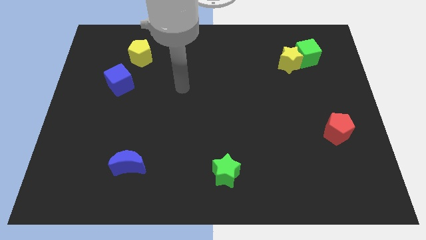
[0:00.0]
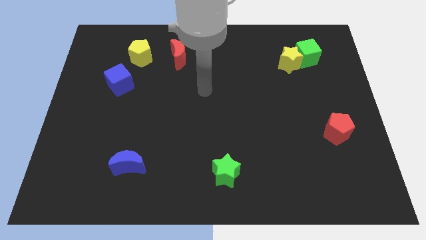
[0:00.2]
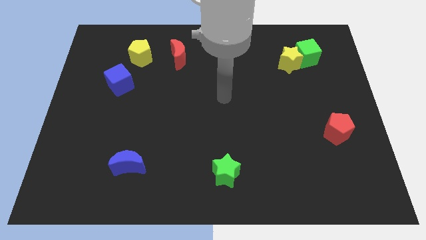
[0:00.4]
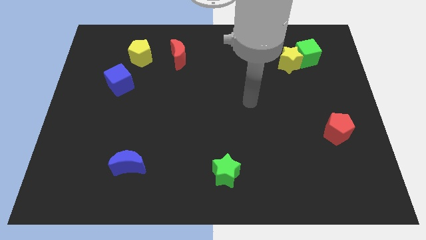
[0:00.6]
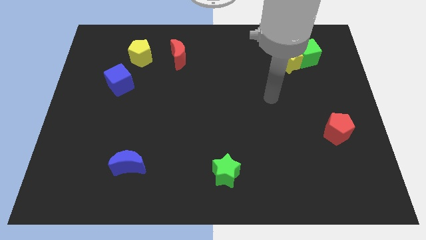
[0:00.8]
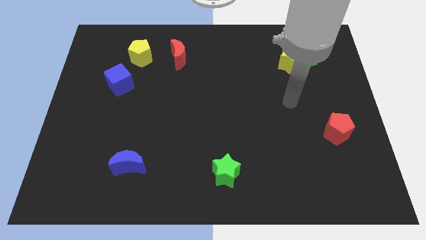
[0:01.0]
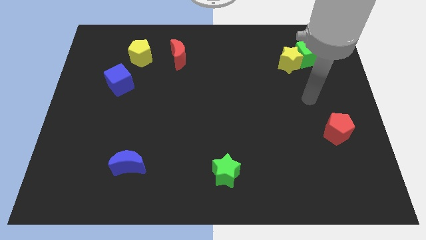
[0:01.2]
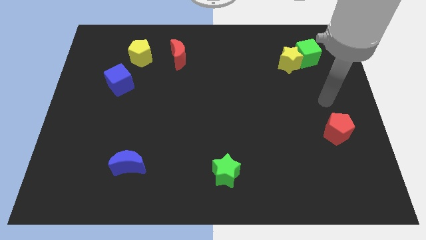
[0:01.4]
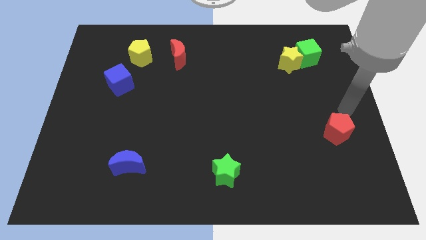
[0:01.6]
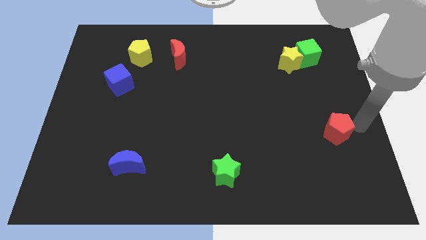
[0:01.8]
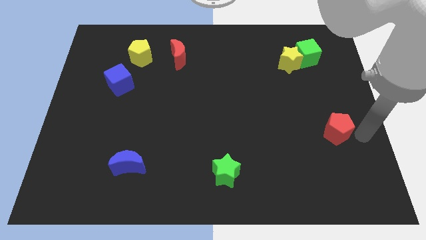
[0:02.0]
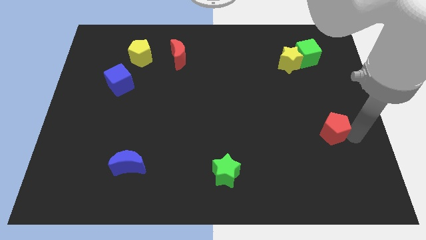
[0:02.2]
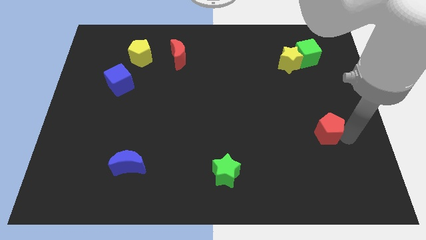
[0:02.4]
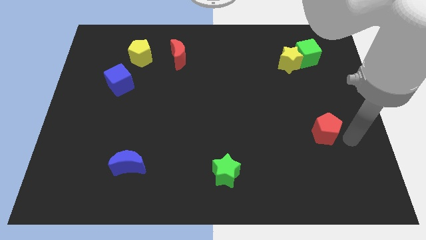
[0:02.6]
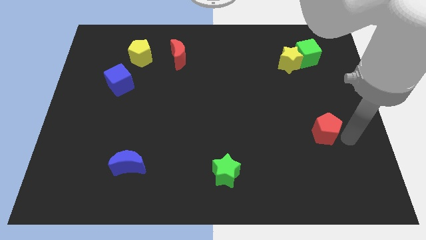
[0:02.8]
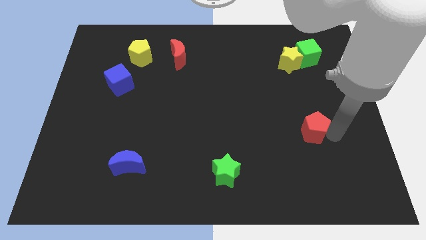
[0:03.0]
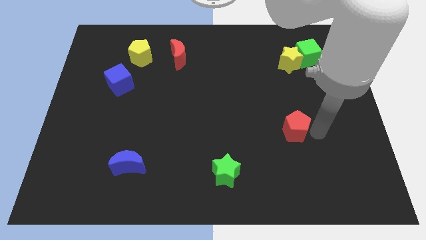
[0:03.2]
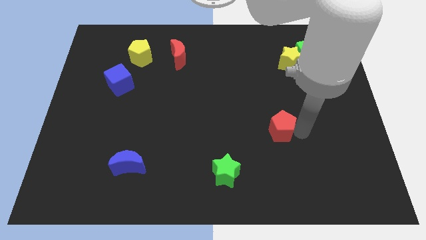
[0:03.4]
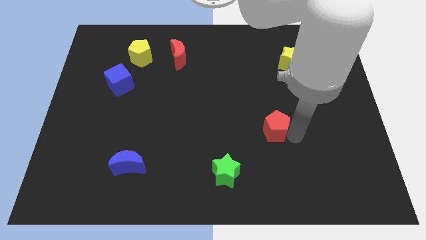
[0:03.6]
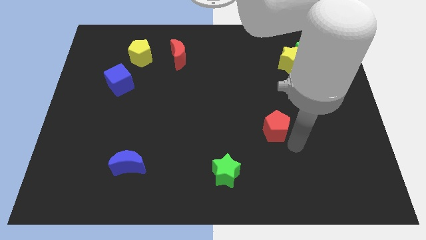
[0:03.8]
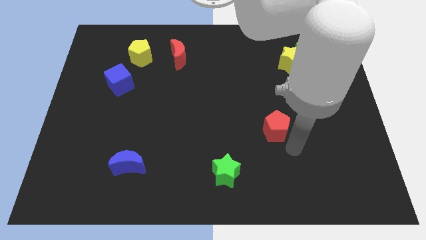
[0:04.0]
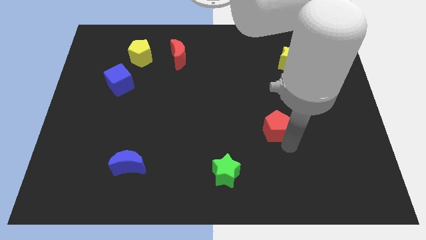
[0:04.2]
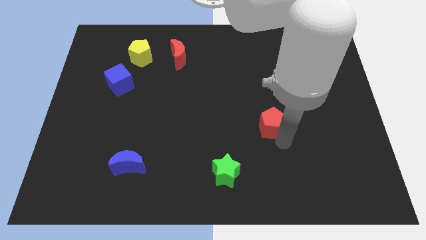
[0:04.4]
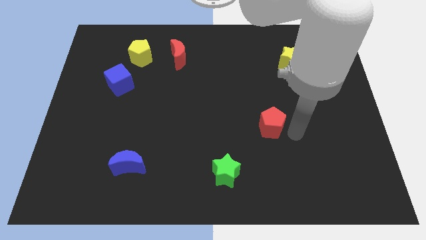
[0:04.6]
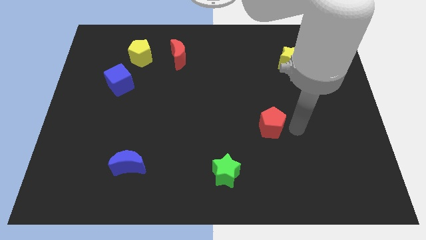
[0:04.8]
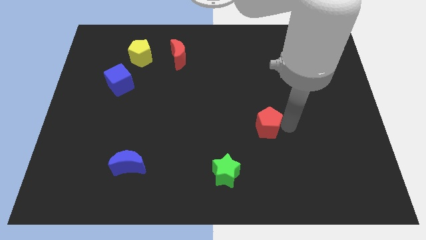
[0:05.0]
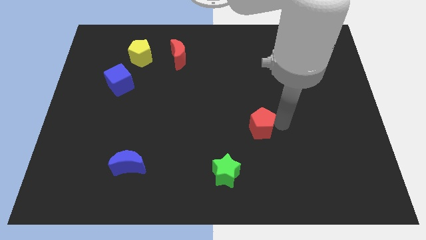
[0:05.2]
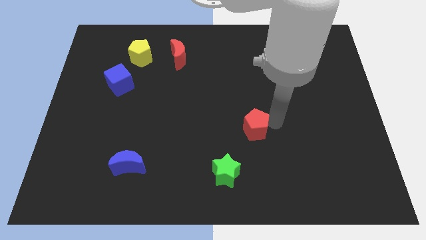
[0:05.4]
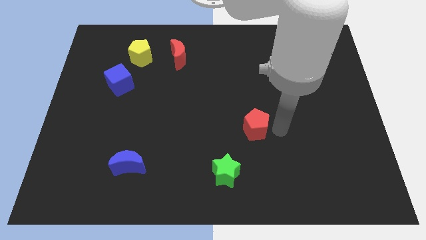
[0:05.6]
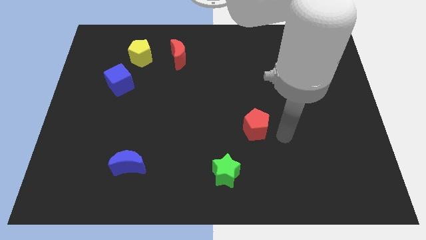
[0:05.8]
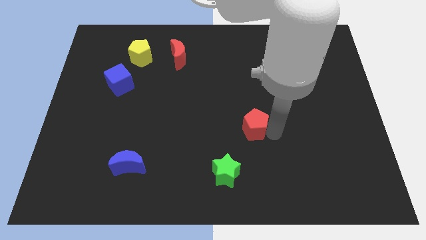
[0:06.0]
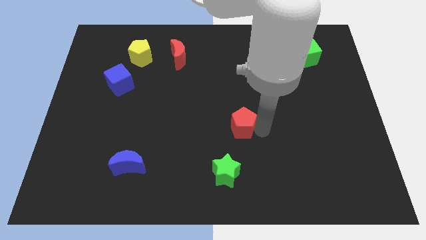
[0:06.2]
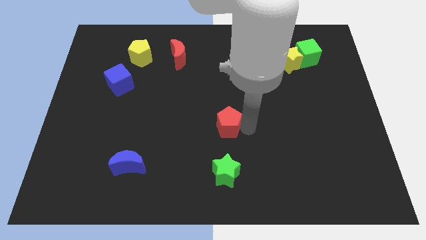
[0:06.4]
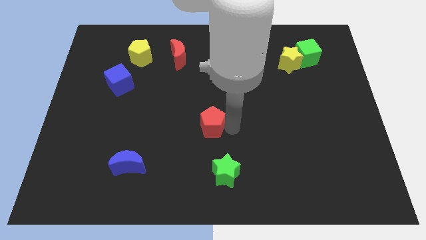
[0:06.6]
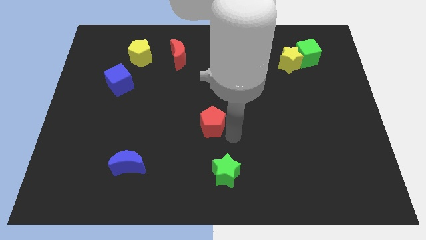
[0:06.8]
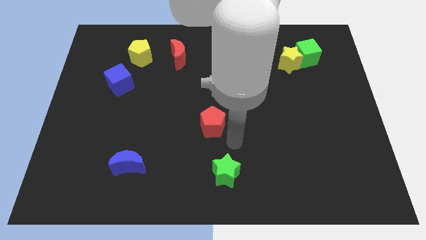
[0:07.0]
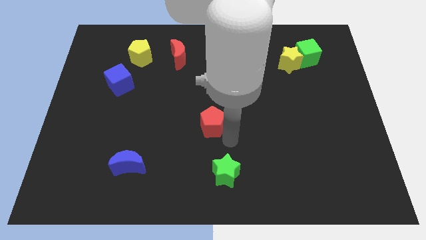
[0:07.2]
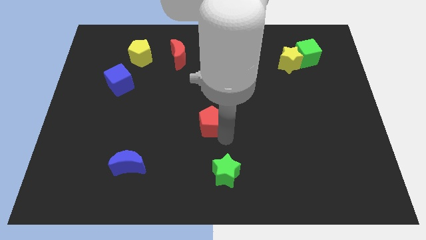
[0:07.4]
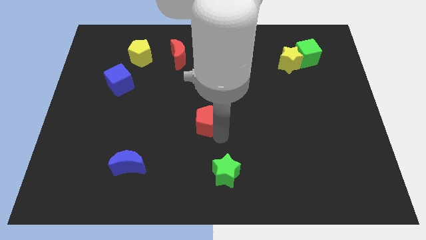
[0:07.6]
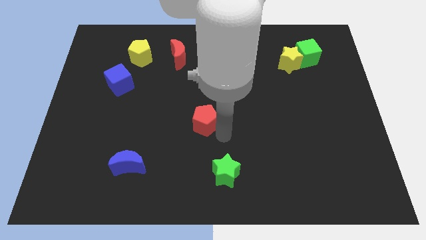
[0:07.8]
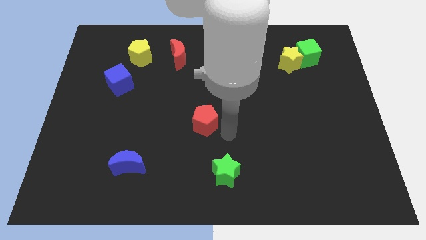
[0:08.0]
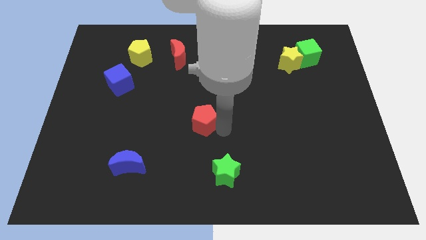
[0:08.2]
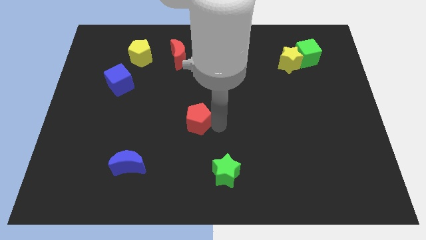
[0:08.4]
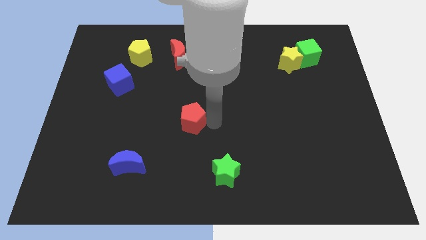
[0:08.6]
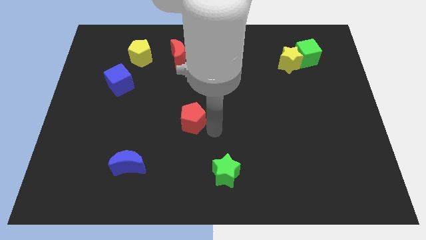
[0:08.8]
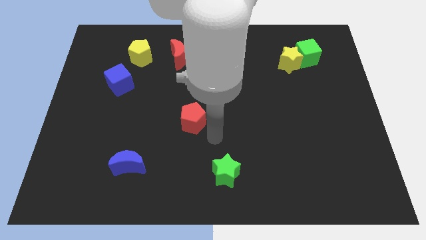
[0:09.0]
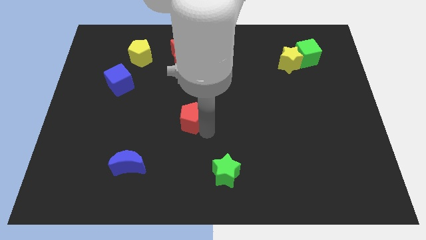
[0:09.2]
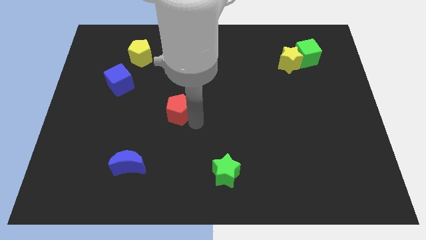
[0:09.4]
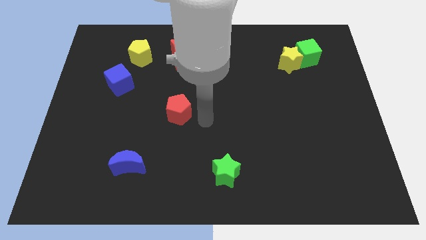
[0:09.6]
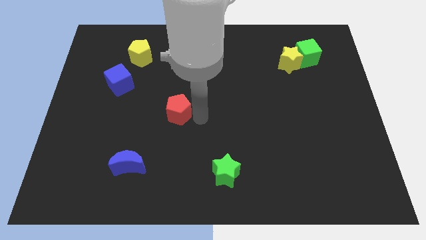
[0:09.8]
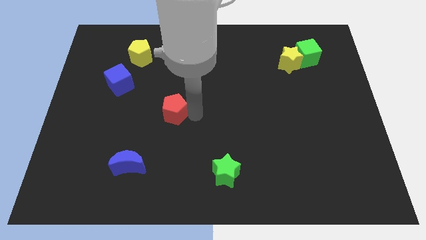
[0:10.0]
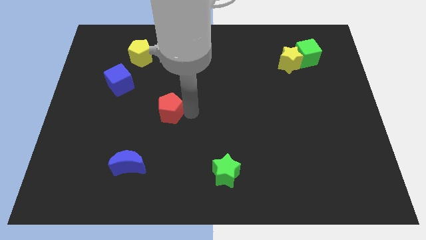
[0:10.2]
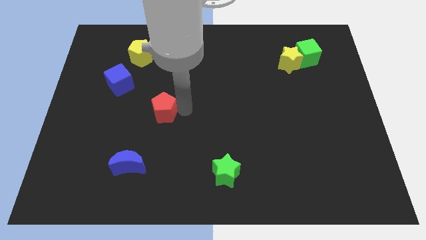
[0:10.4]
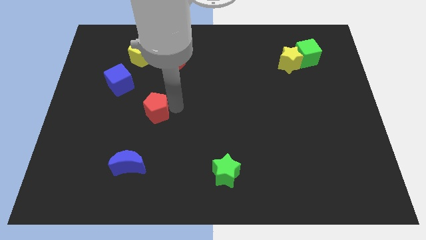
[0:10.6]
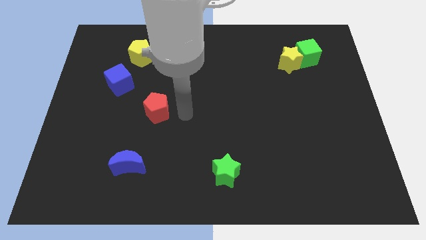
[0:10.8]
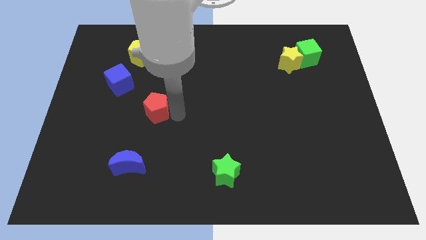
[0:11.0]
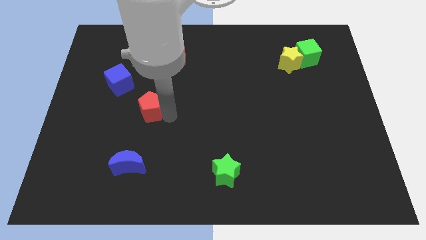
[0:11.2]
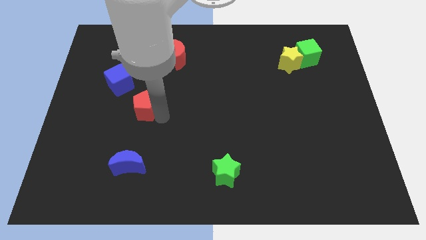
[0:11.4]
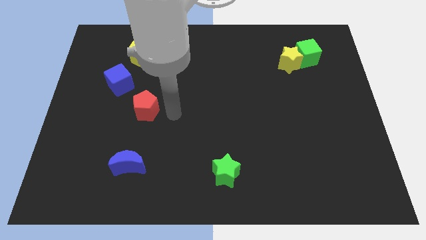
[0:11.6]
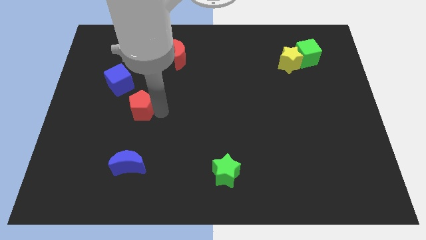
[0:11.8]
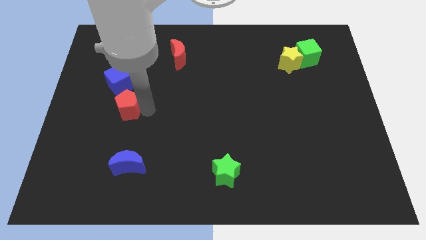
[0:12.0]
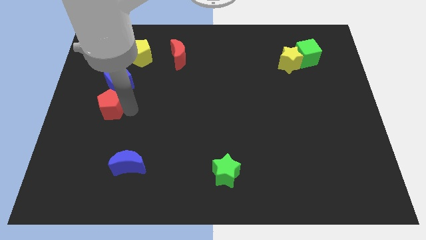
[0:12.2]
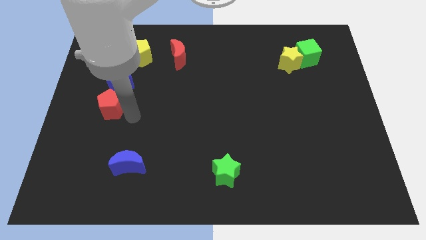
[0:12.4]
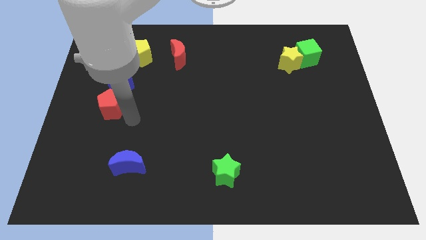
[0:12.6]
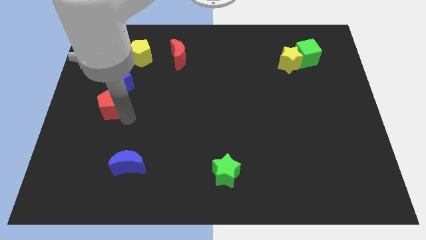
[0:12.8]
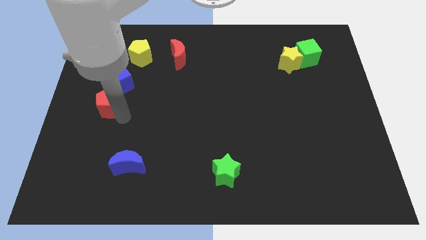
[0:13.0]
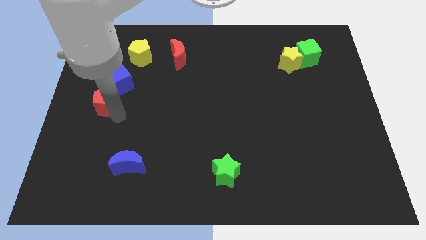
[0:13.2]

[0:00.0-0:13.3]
push the red pentagon to the center left
